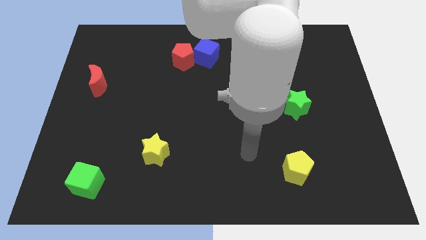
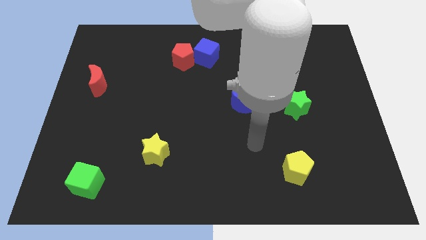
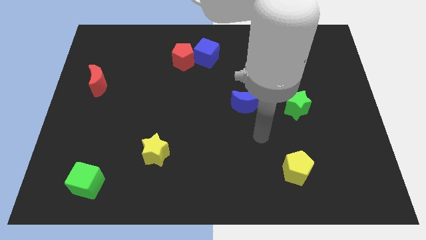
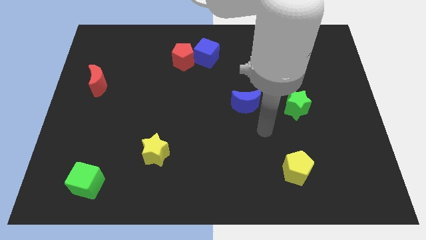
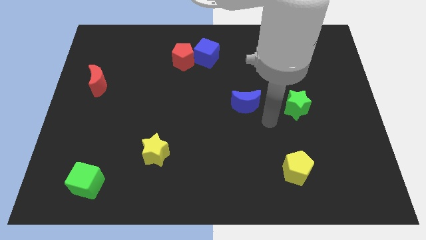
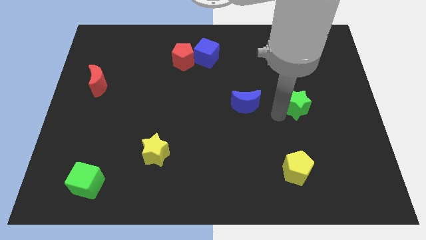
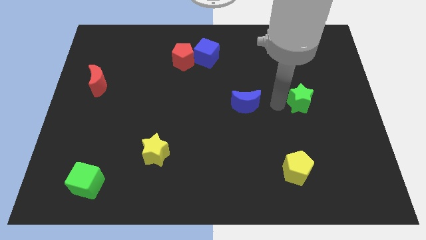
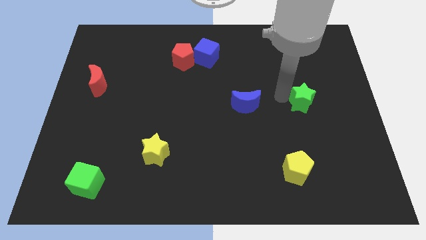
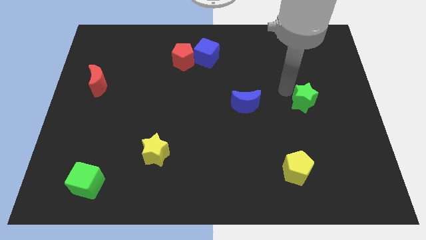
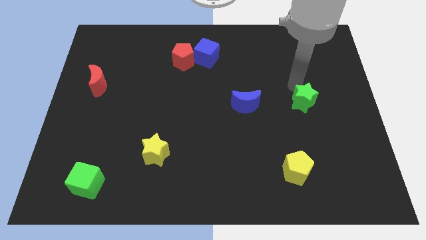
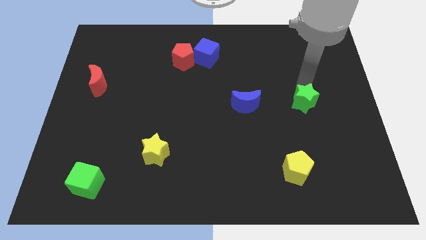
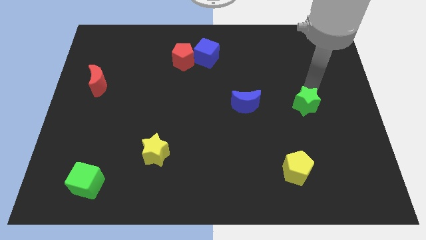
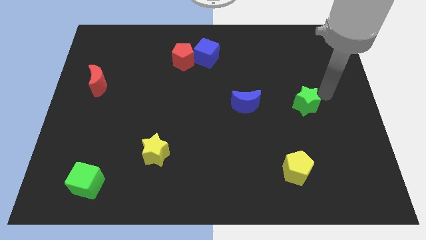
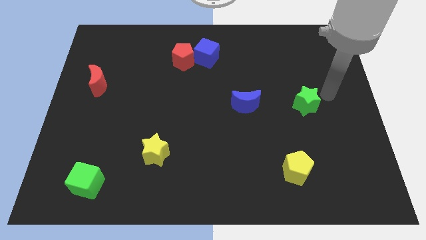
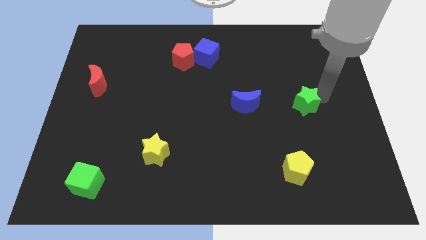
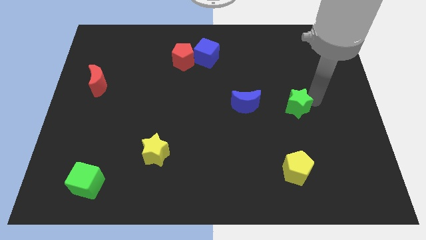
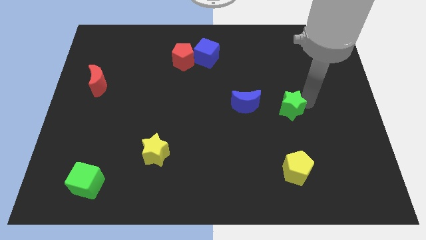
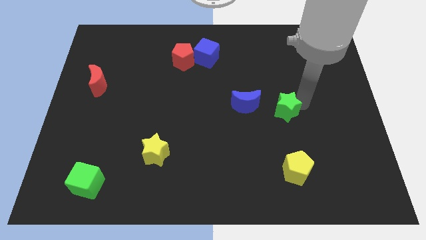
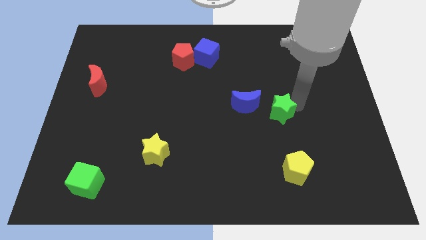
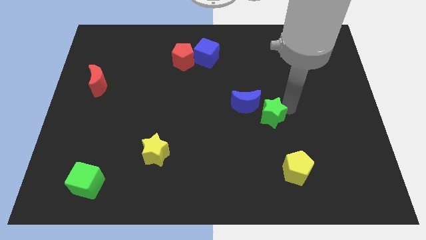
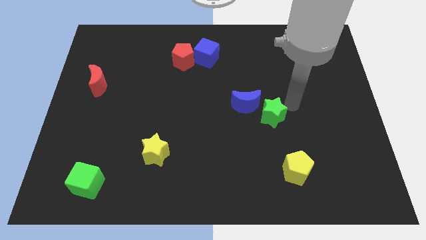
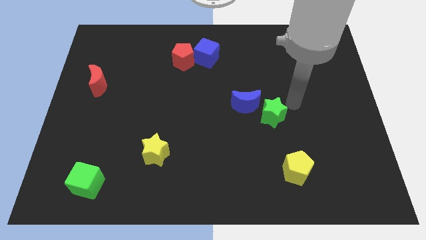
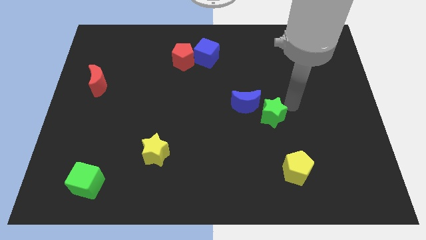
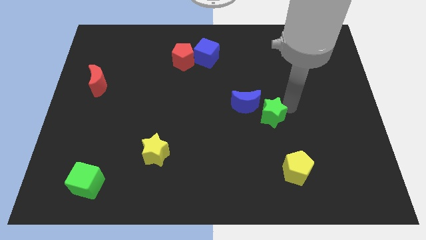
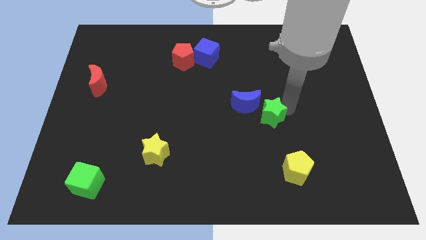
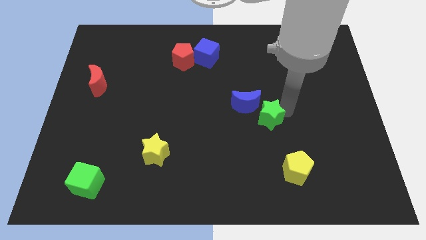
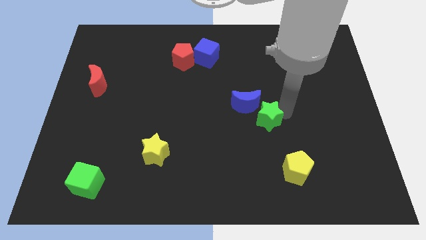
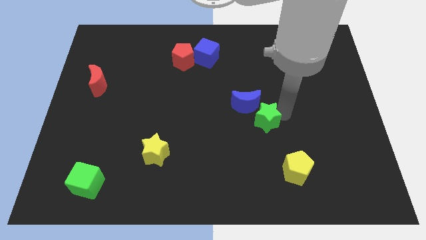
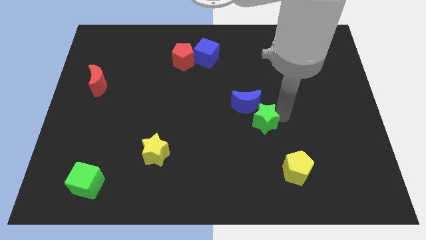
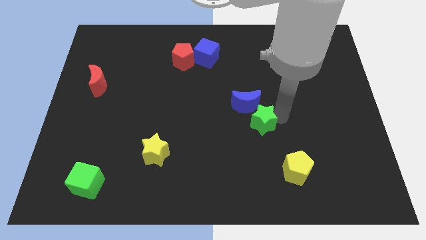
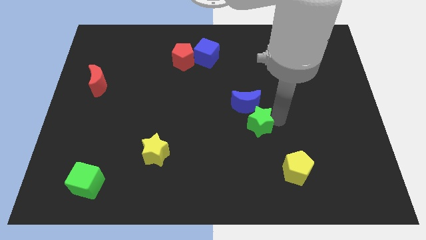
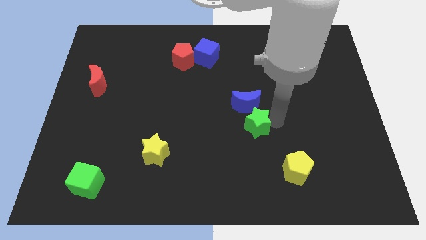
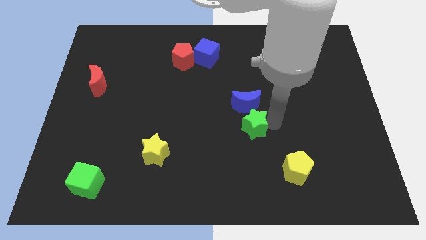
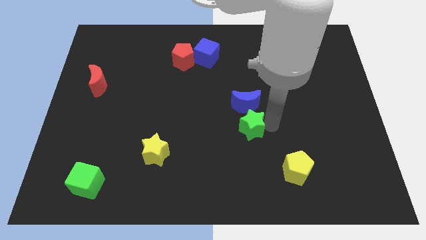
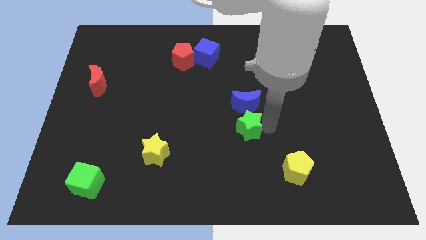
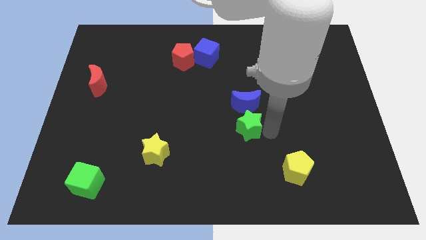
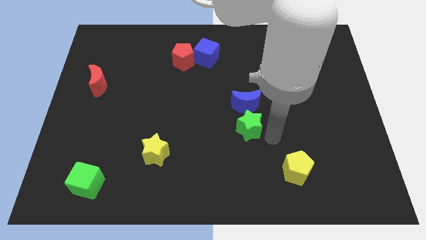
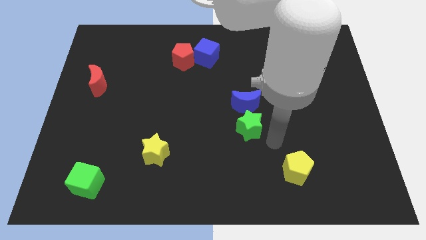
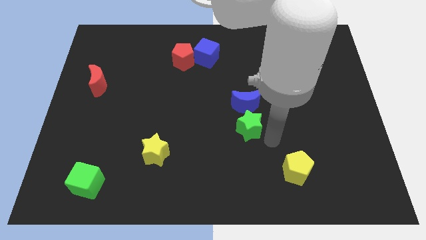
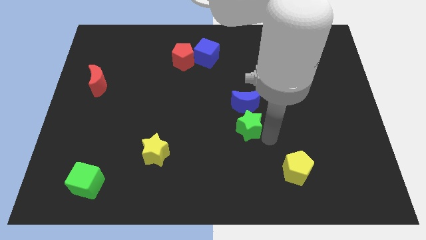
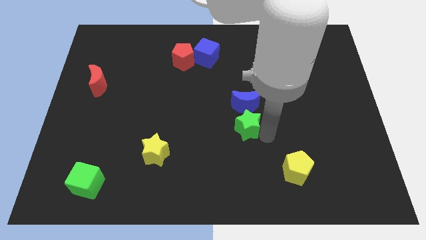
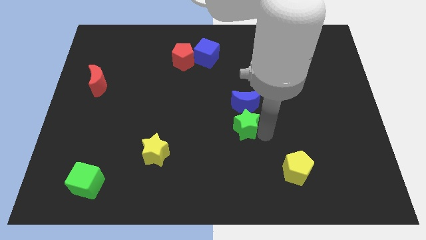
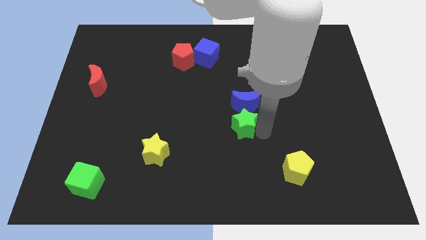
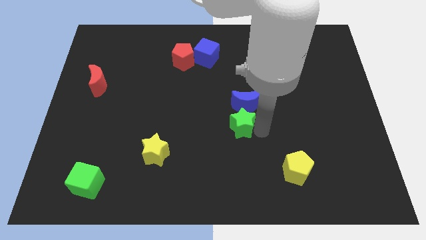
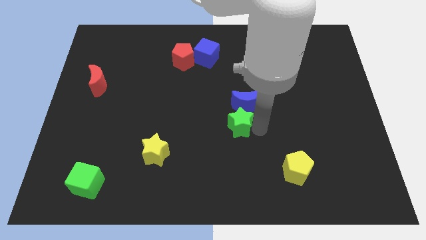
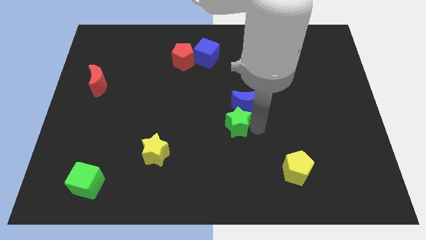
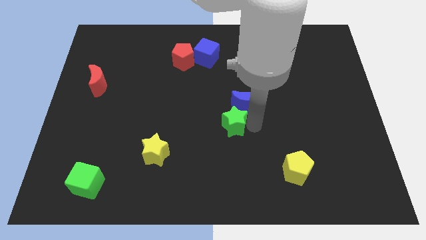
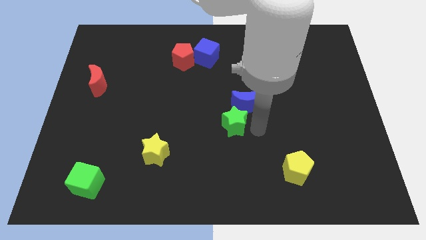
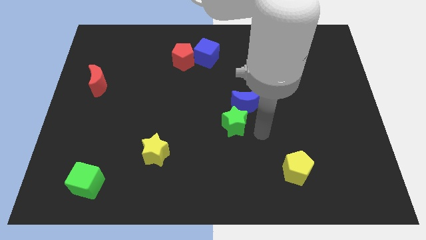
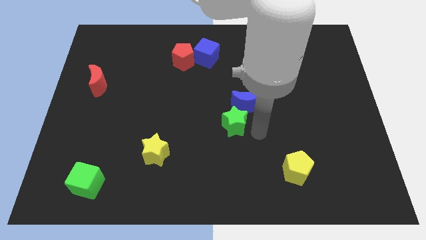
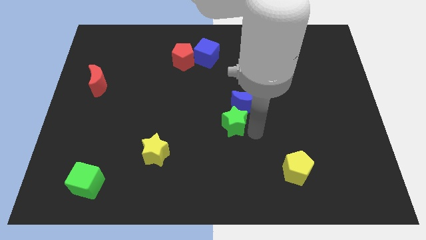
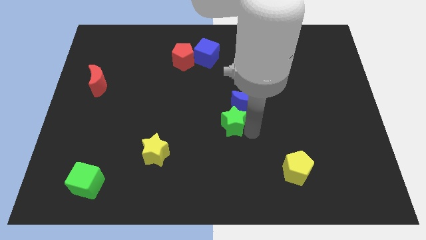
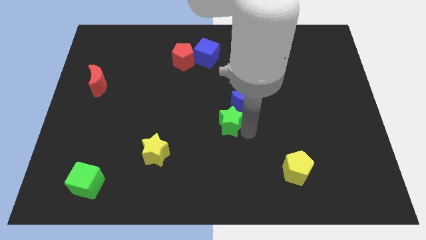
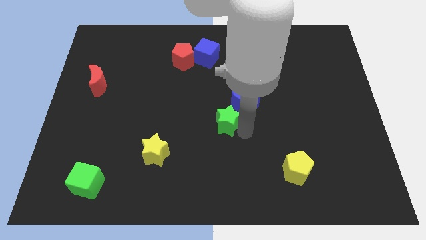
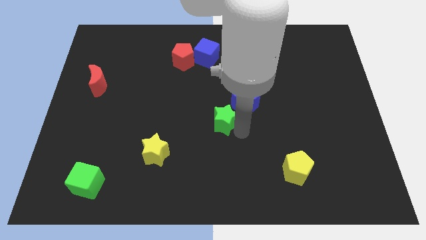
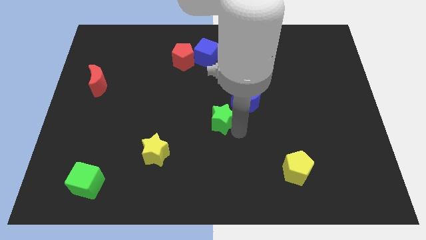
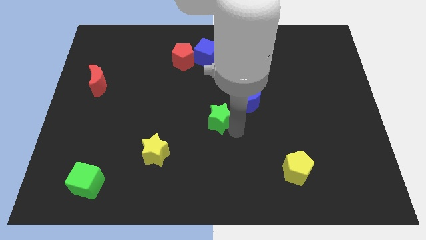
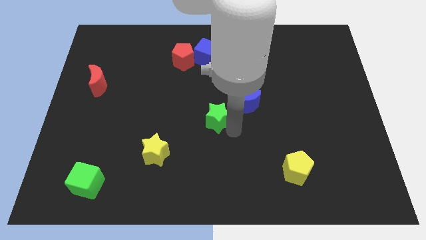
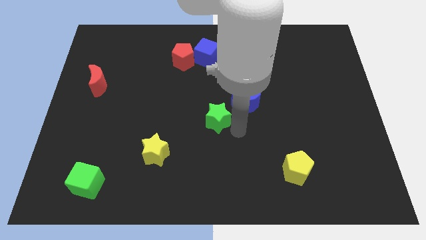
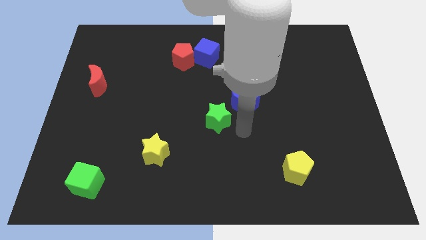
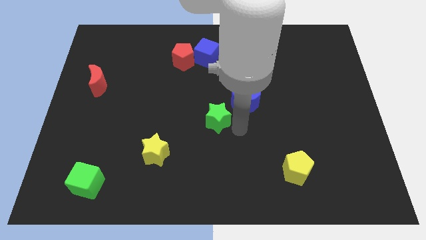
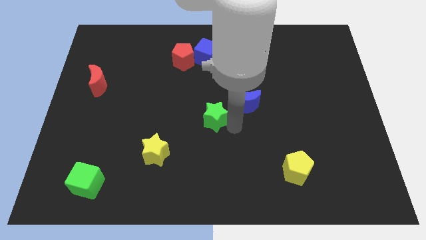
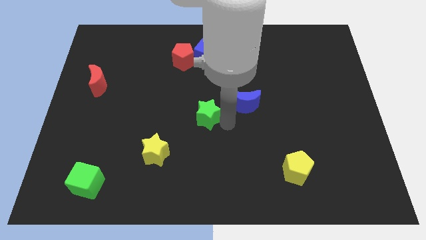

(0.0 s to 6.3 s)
slide the green star left

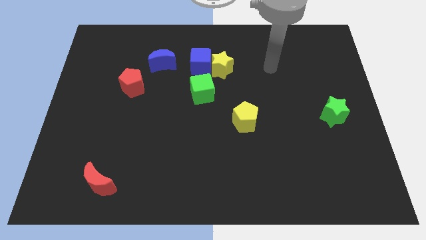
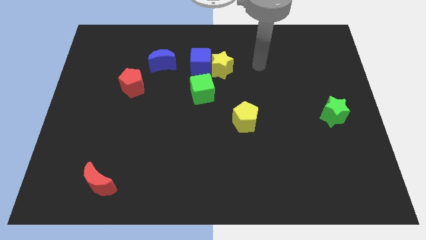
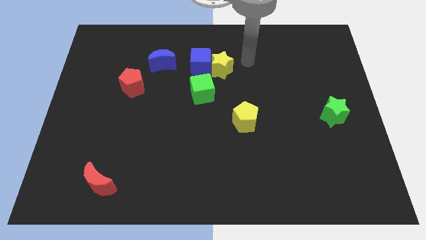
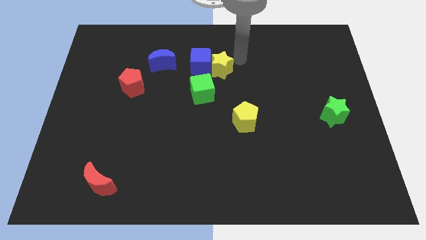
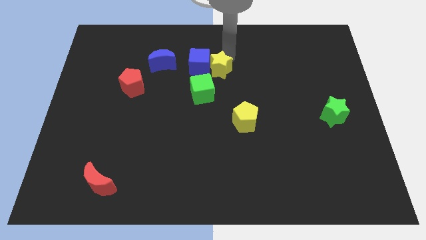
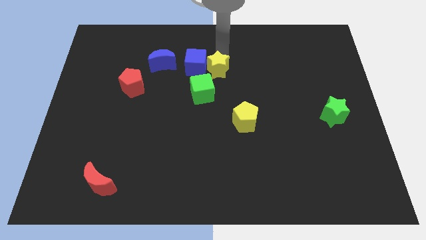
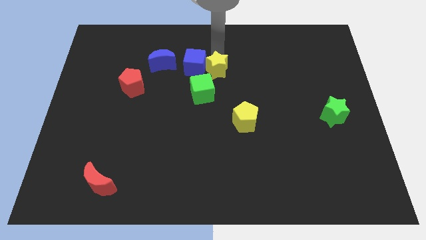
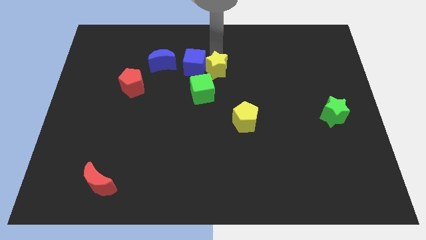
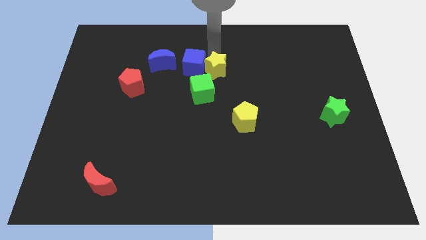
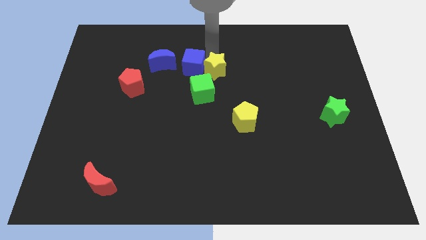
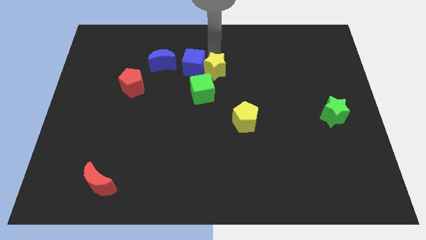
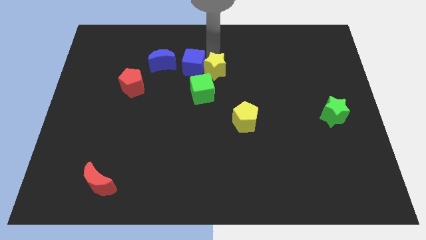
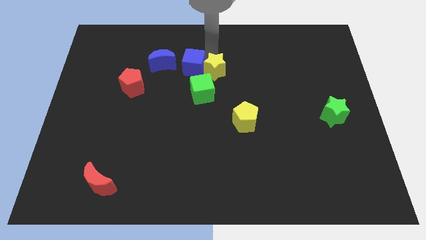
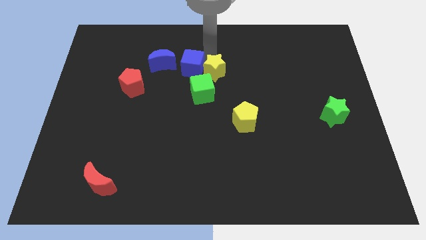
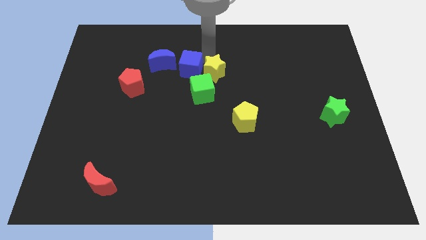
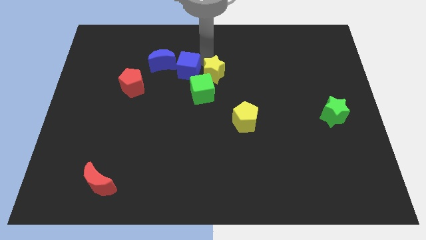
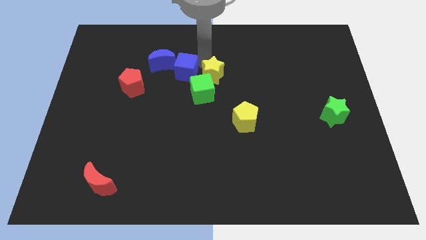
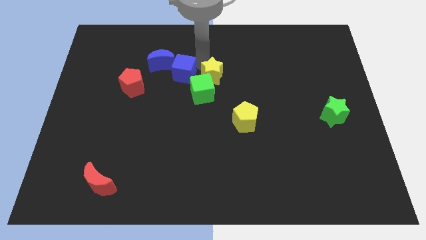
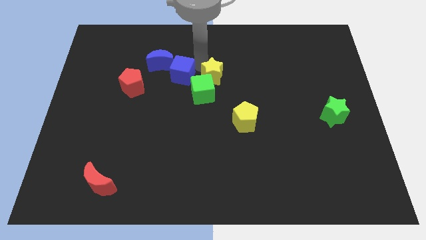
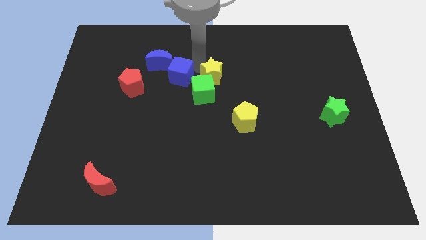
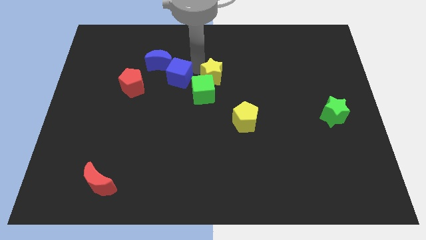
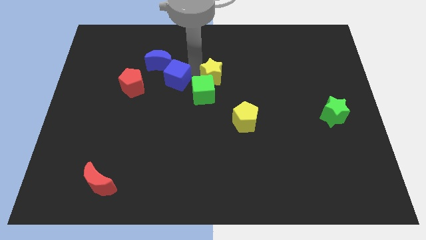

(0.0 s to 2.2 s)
push the blue cube down and to the left diagonally a little bit
